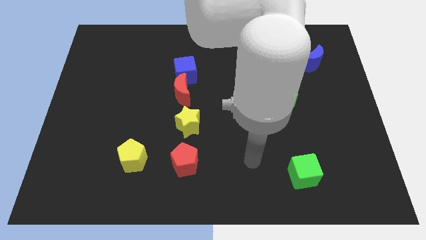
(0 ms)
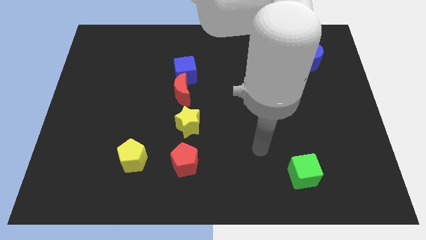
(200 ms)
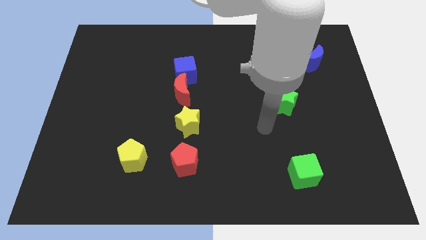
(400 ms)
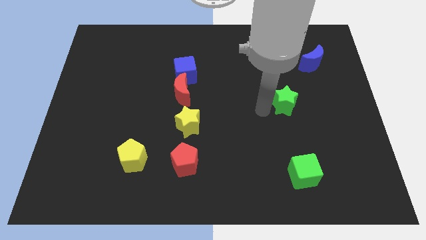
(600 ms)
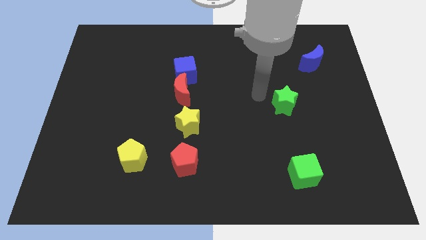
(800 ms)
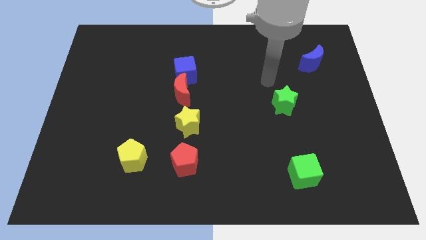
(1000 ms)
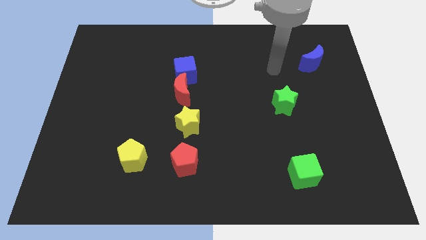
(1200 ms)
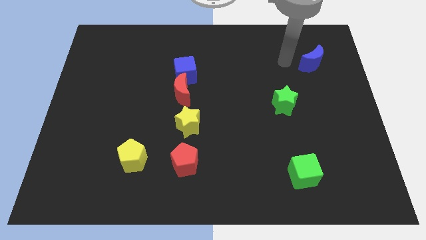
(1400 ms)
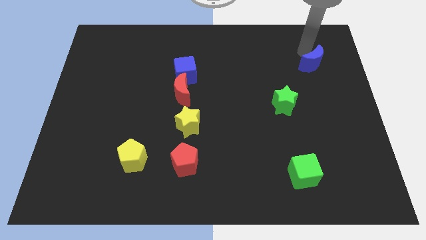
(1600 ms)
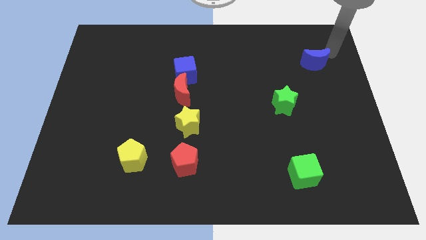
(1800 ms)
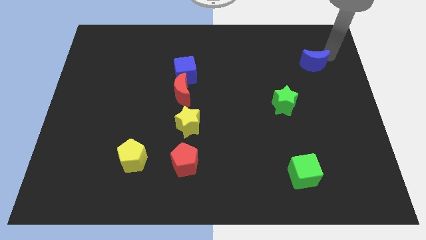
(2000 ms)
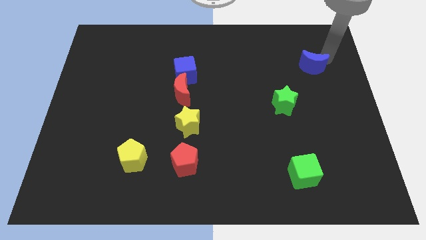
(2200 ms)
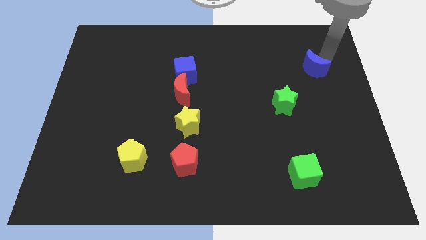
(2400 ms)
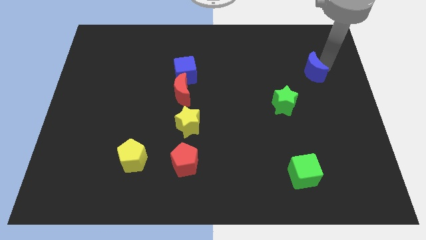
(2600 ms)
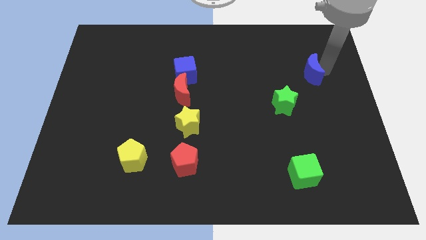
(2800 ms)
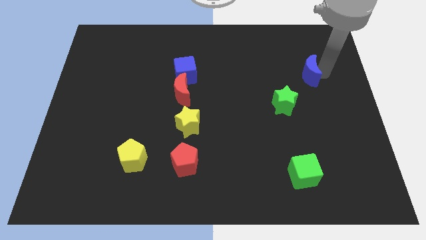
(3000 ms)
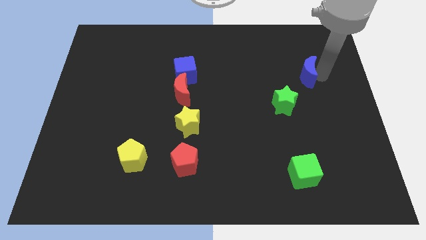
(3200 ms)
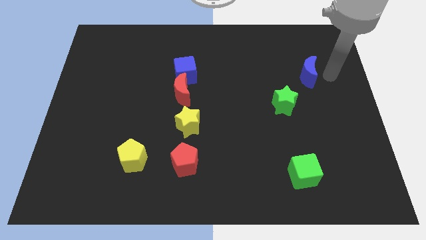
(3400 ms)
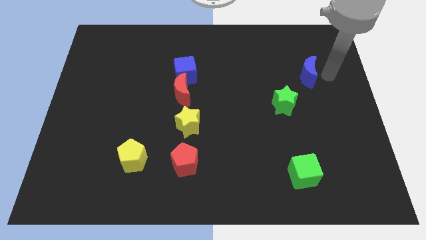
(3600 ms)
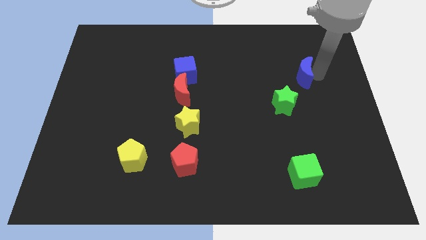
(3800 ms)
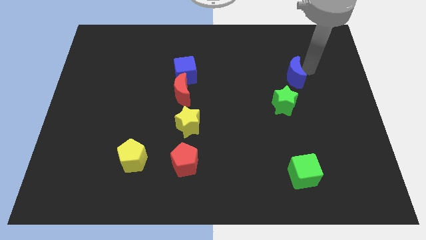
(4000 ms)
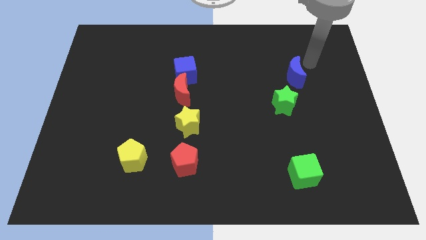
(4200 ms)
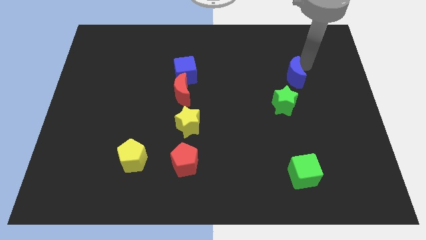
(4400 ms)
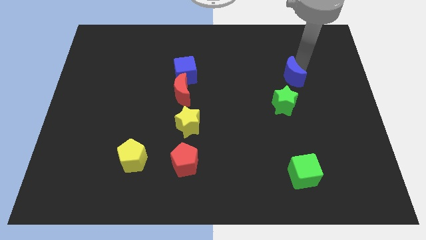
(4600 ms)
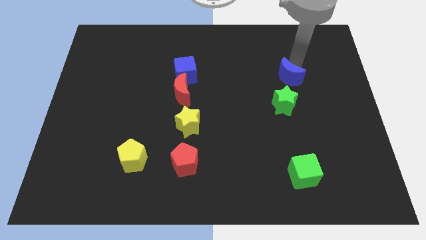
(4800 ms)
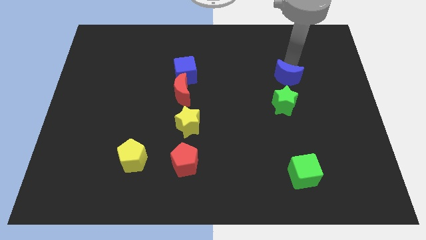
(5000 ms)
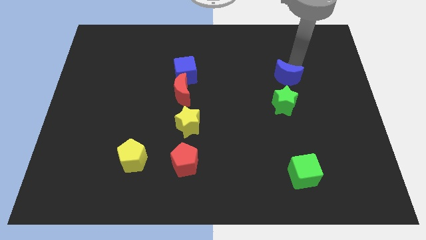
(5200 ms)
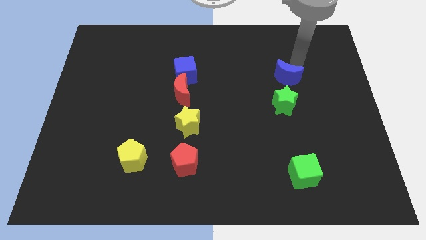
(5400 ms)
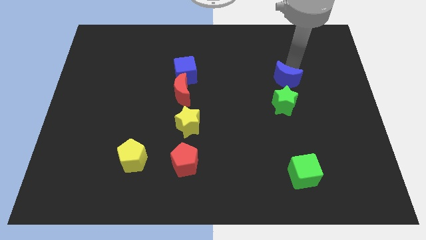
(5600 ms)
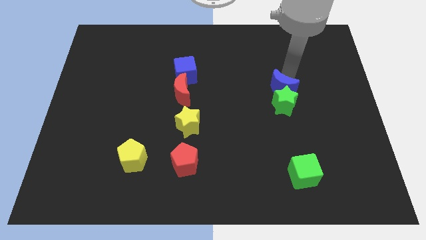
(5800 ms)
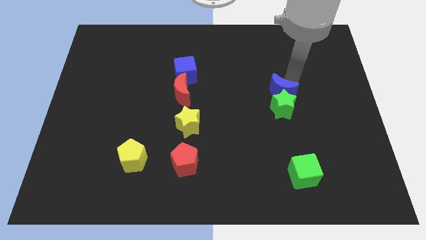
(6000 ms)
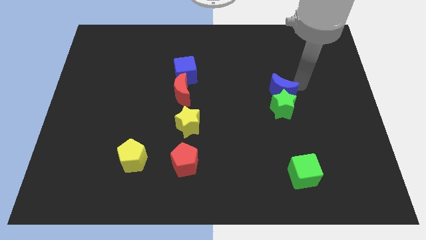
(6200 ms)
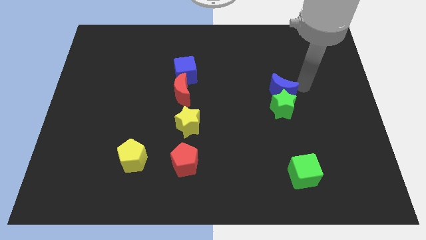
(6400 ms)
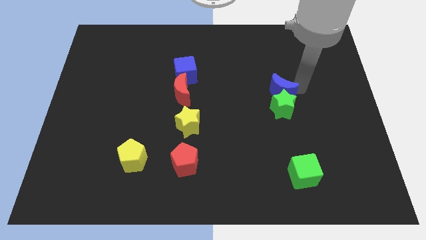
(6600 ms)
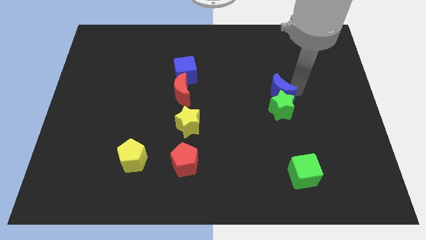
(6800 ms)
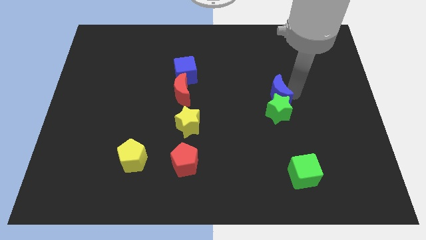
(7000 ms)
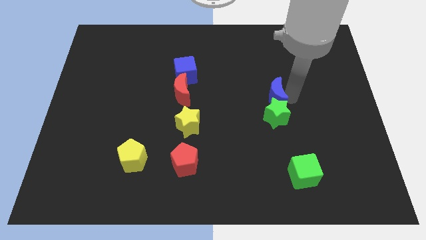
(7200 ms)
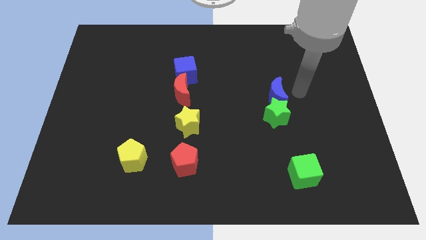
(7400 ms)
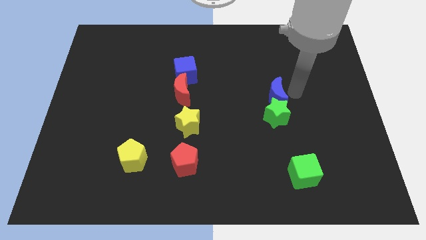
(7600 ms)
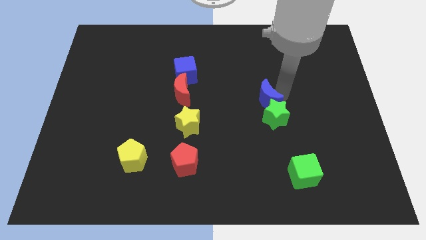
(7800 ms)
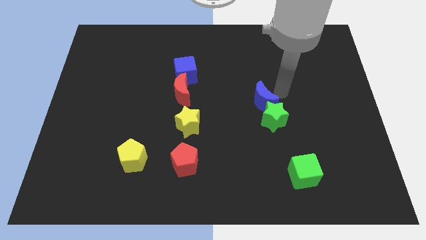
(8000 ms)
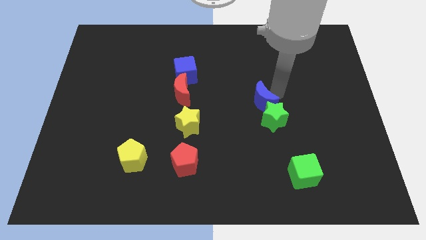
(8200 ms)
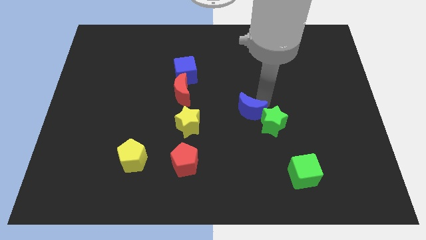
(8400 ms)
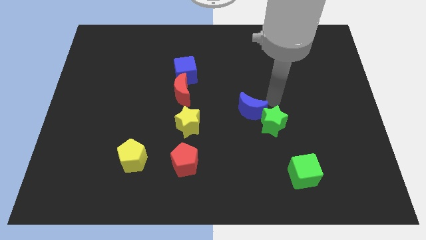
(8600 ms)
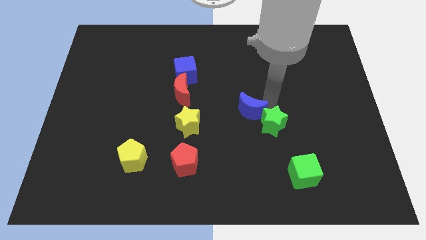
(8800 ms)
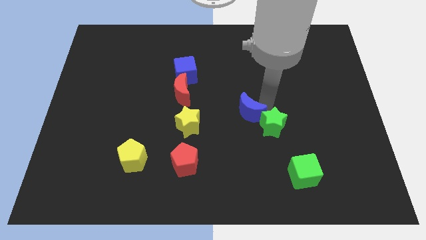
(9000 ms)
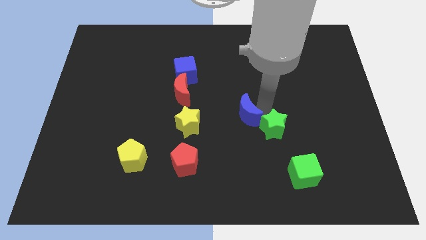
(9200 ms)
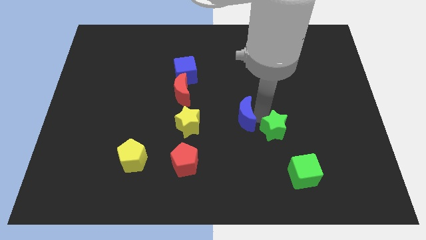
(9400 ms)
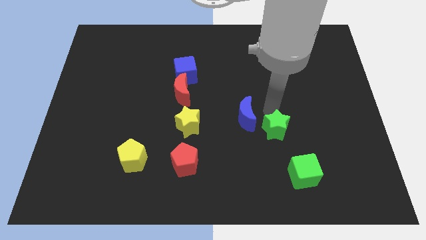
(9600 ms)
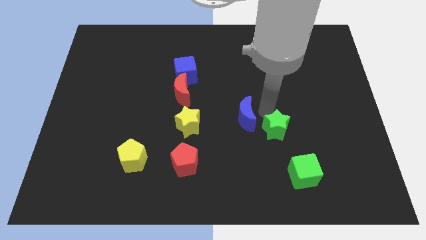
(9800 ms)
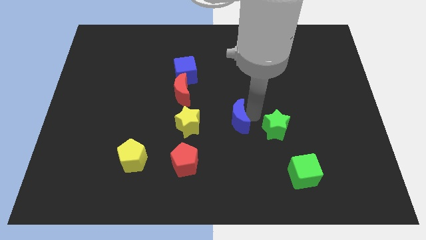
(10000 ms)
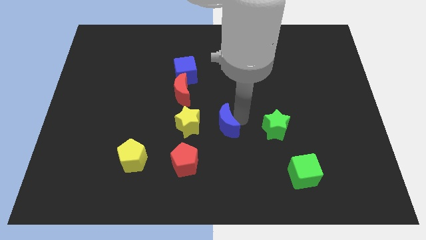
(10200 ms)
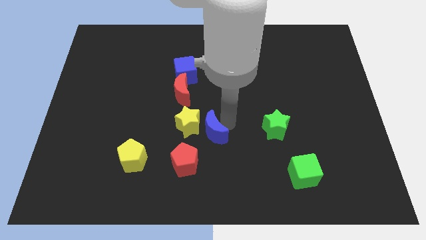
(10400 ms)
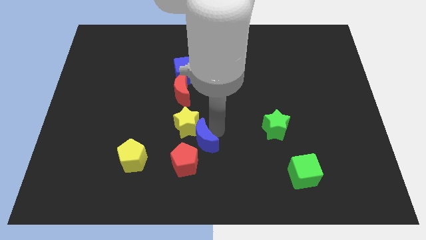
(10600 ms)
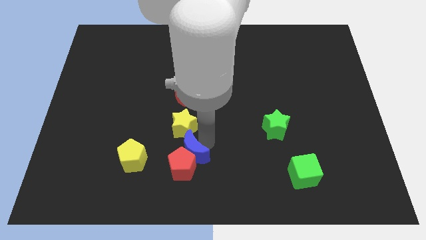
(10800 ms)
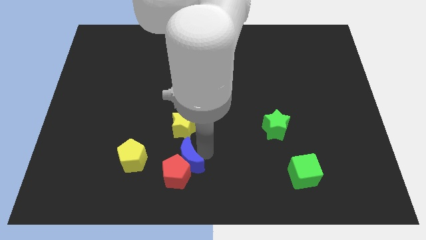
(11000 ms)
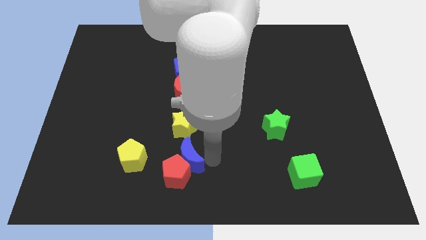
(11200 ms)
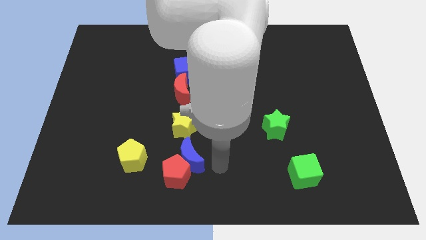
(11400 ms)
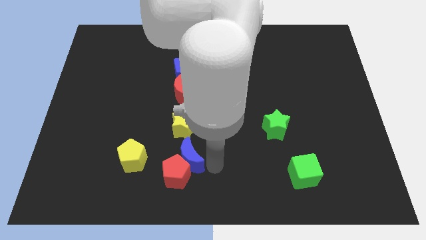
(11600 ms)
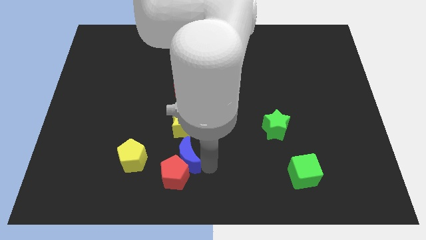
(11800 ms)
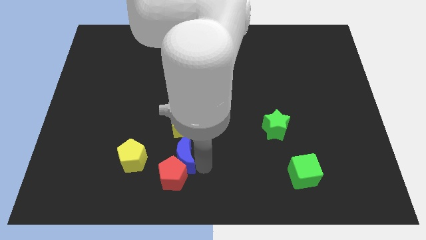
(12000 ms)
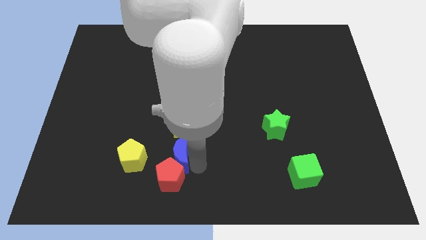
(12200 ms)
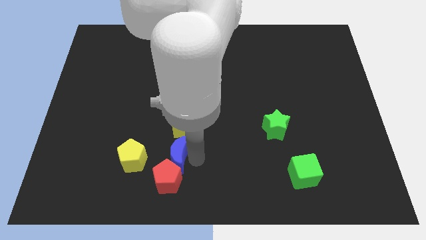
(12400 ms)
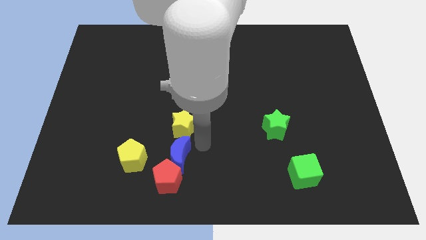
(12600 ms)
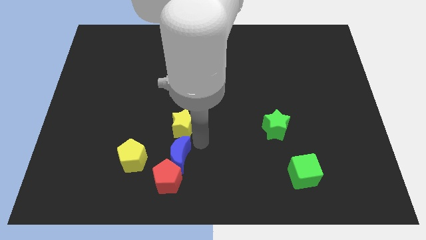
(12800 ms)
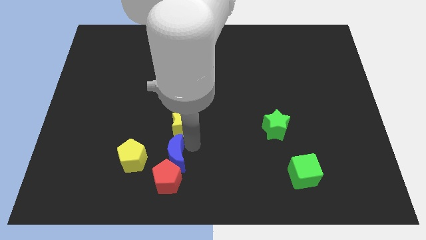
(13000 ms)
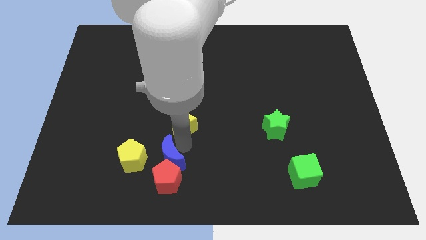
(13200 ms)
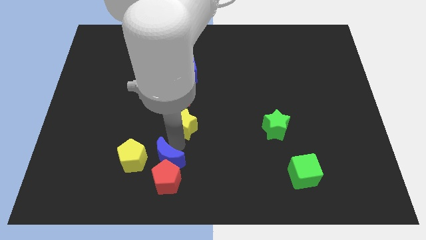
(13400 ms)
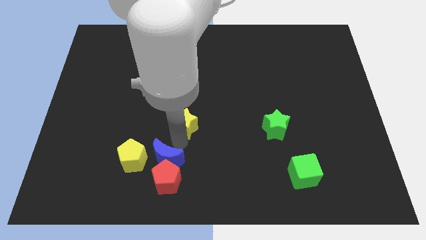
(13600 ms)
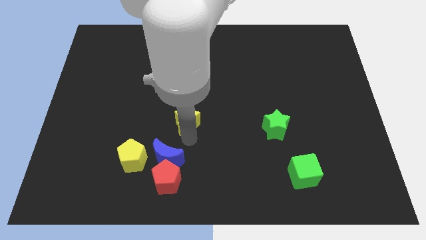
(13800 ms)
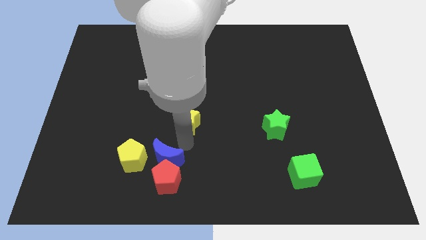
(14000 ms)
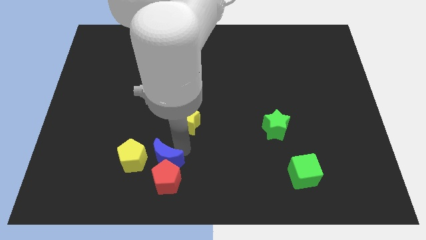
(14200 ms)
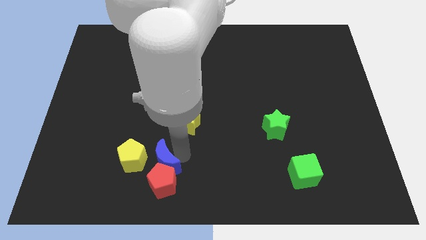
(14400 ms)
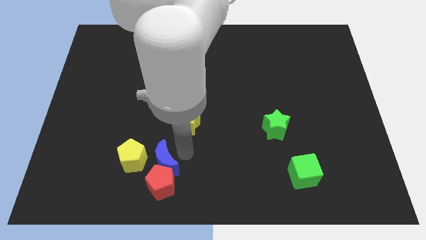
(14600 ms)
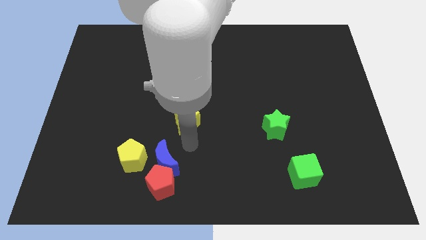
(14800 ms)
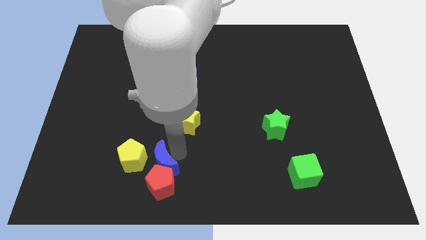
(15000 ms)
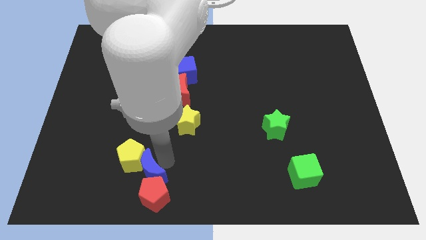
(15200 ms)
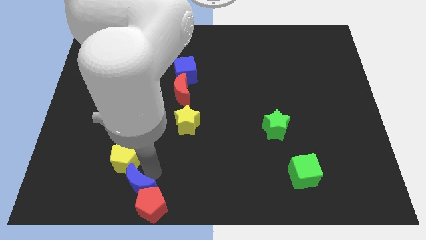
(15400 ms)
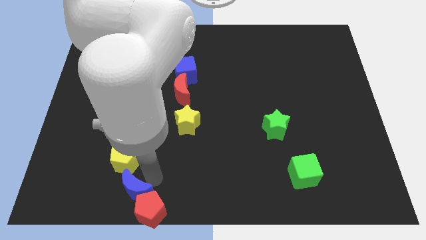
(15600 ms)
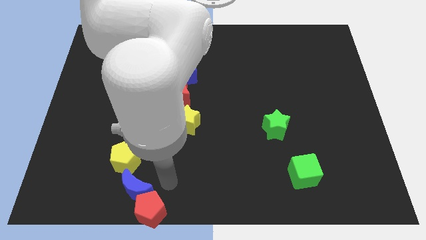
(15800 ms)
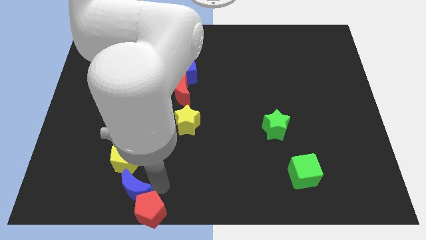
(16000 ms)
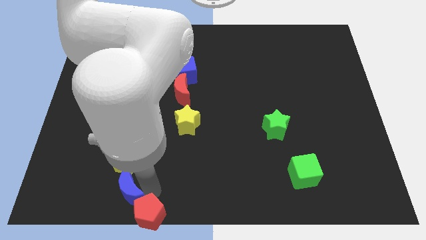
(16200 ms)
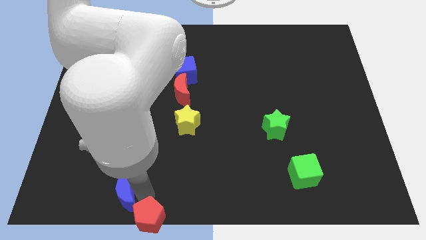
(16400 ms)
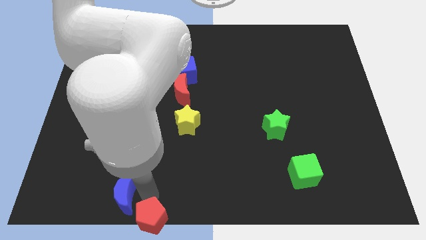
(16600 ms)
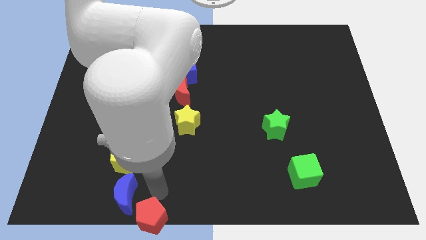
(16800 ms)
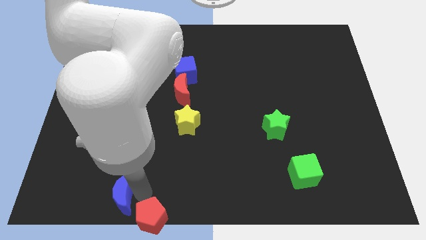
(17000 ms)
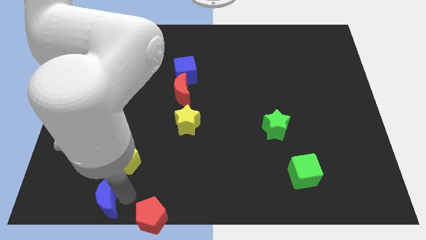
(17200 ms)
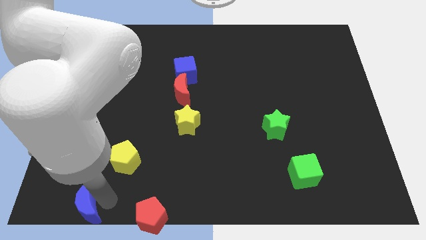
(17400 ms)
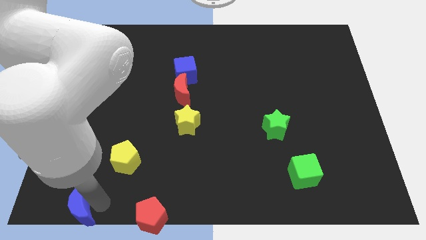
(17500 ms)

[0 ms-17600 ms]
slide the blue moon to the lower left corner
